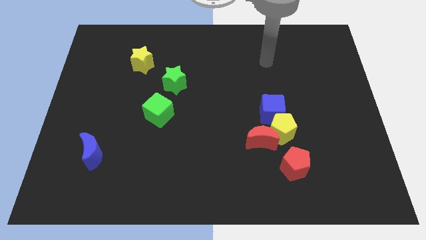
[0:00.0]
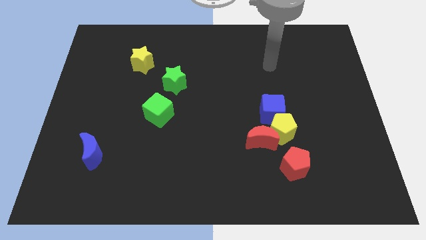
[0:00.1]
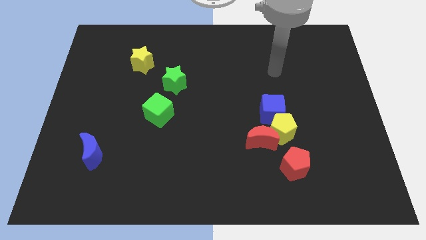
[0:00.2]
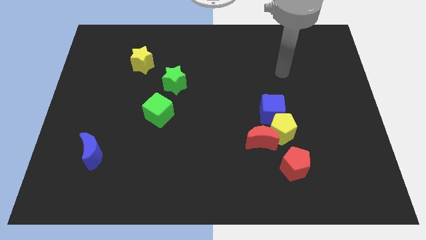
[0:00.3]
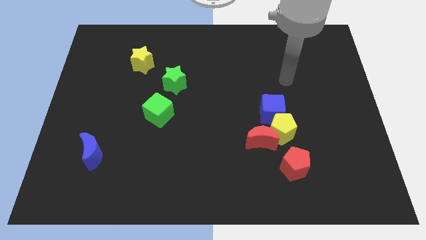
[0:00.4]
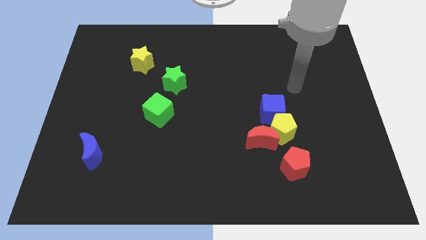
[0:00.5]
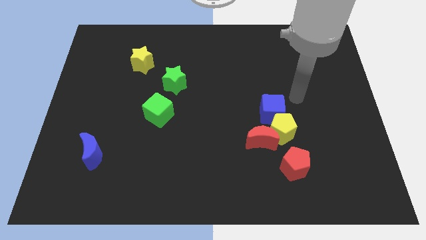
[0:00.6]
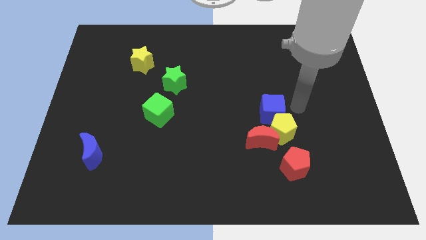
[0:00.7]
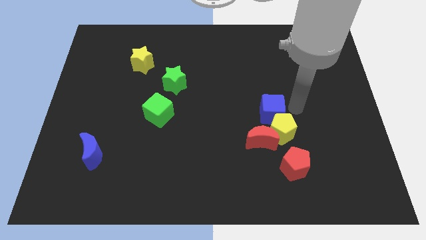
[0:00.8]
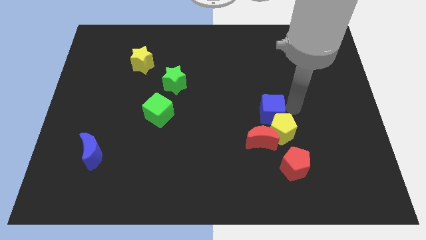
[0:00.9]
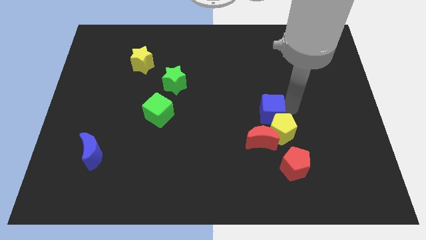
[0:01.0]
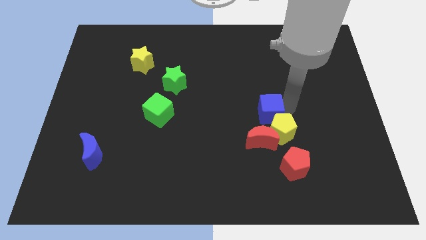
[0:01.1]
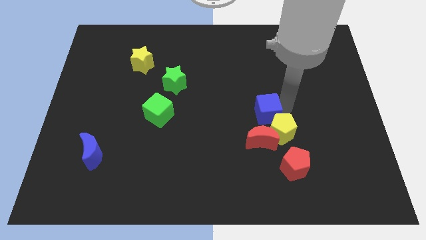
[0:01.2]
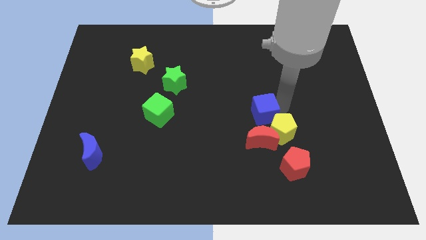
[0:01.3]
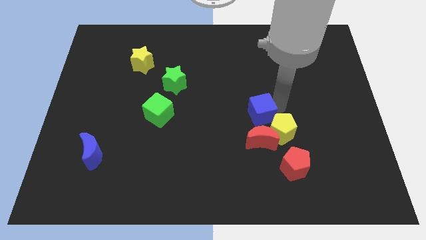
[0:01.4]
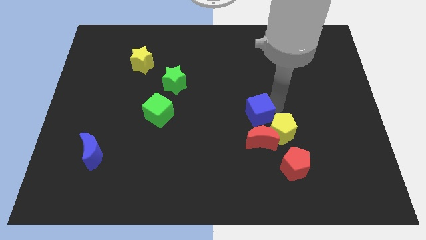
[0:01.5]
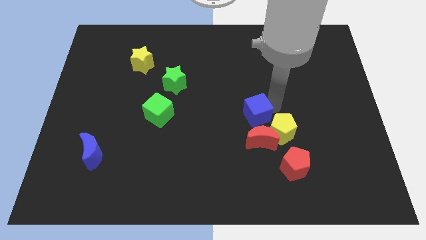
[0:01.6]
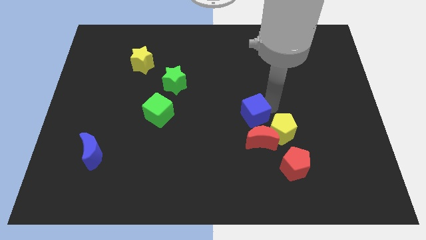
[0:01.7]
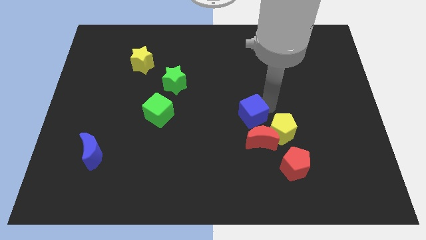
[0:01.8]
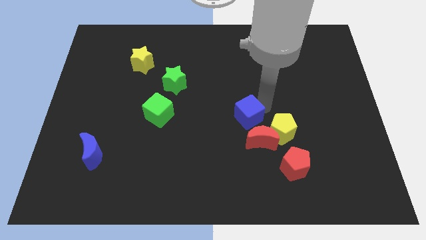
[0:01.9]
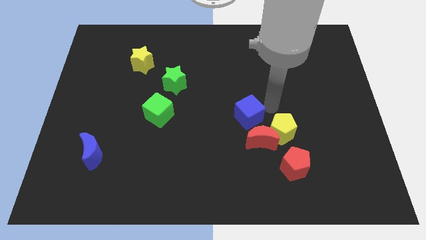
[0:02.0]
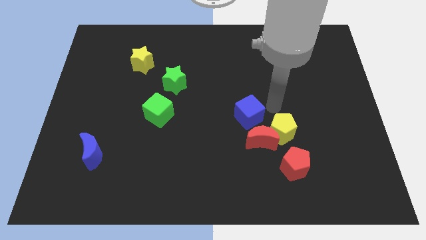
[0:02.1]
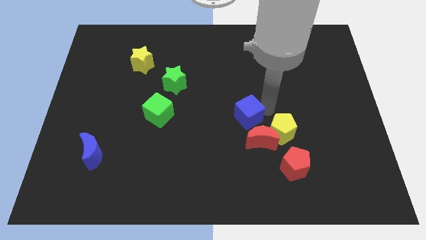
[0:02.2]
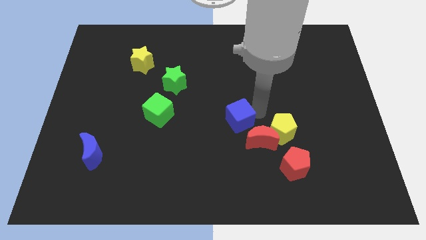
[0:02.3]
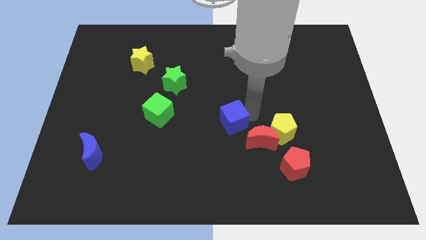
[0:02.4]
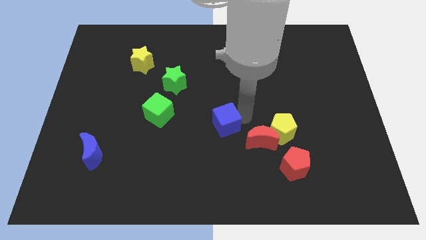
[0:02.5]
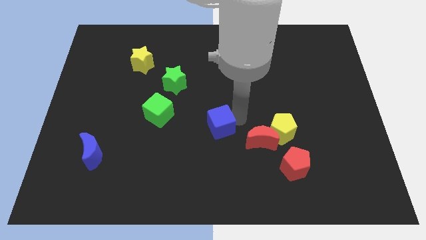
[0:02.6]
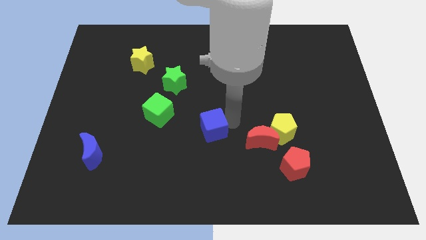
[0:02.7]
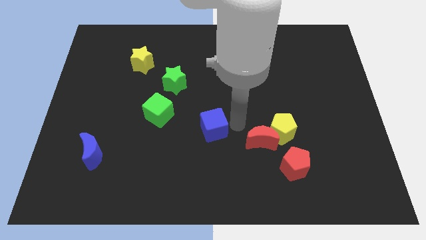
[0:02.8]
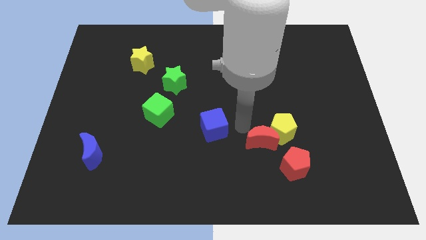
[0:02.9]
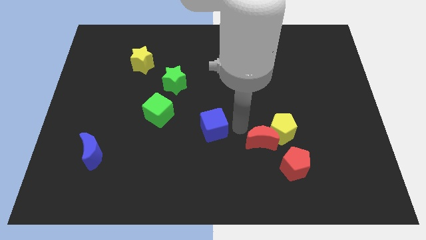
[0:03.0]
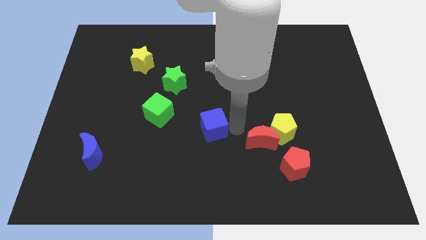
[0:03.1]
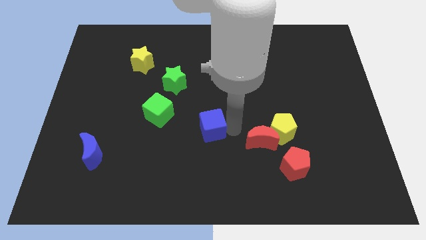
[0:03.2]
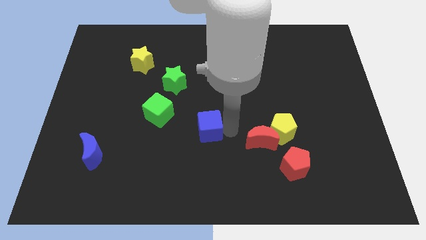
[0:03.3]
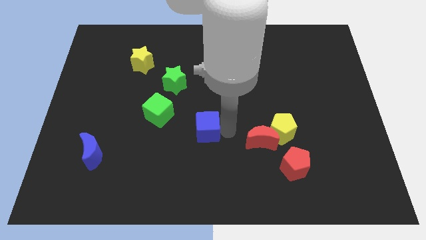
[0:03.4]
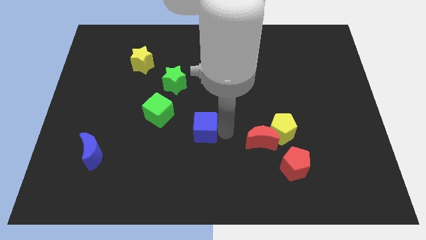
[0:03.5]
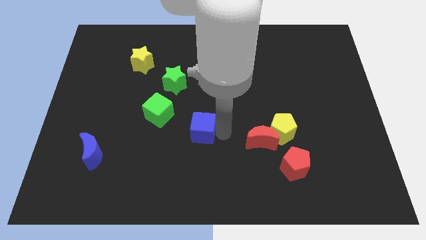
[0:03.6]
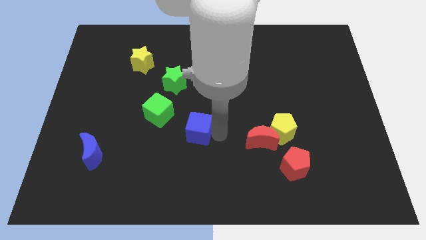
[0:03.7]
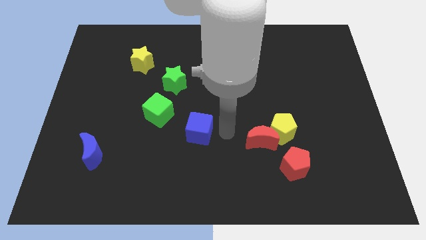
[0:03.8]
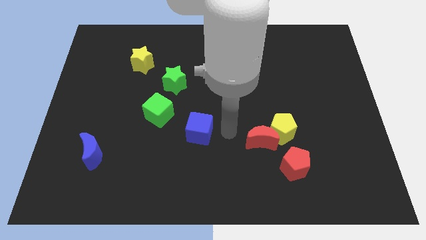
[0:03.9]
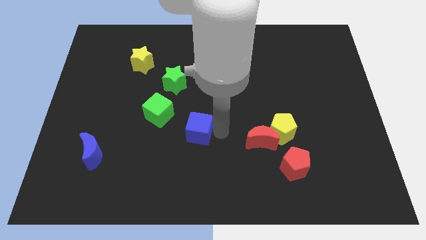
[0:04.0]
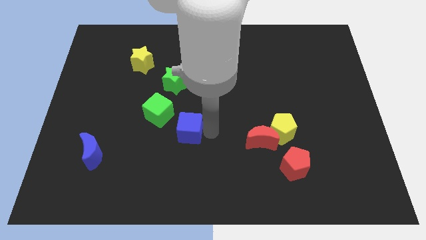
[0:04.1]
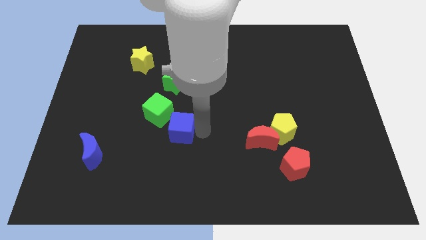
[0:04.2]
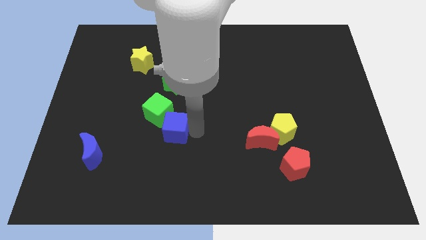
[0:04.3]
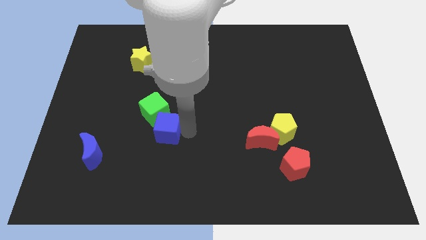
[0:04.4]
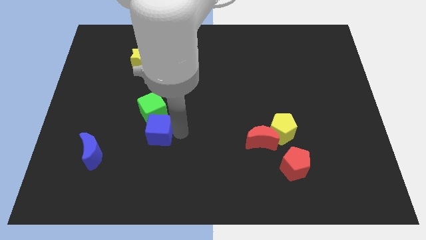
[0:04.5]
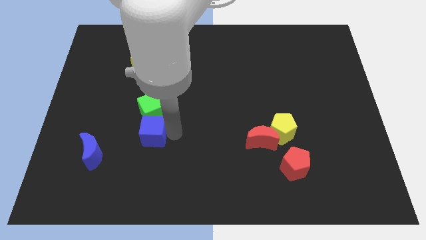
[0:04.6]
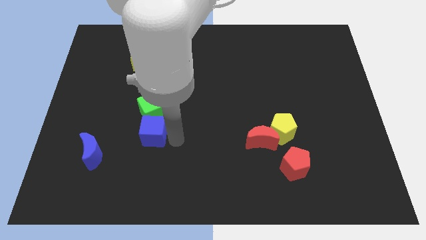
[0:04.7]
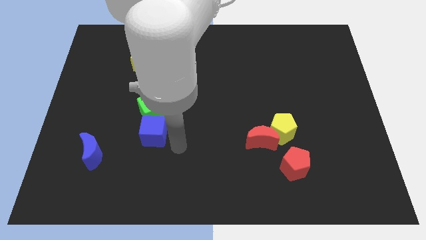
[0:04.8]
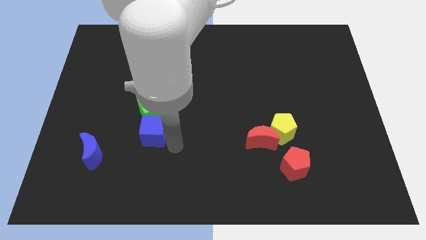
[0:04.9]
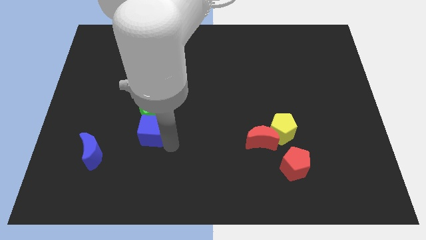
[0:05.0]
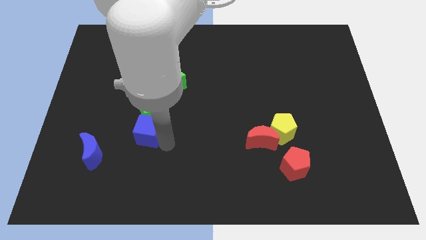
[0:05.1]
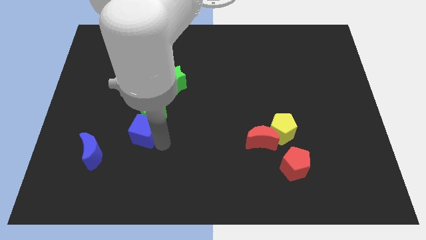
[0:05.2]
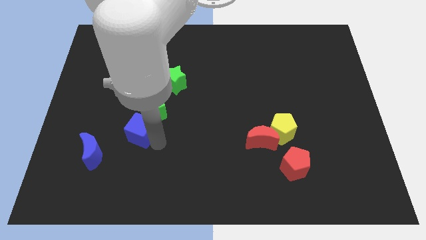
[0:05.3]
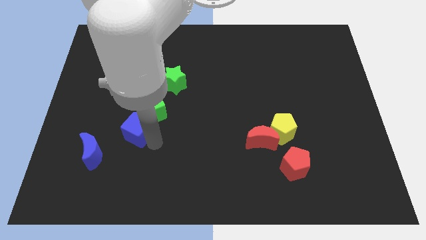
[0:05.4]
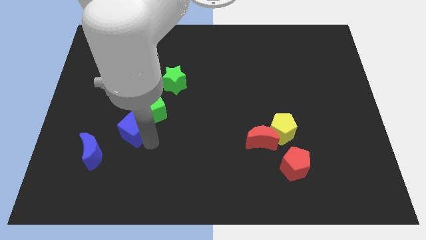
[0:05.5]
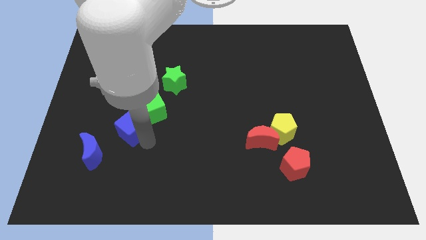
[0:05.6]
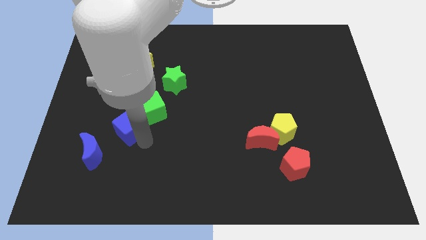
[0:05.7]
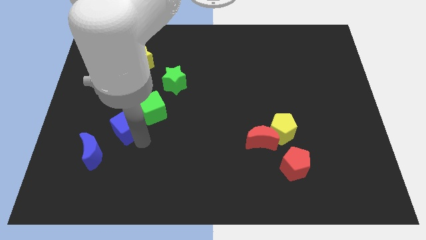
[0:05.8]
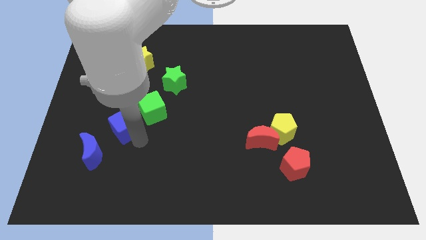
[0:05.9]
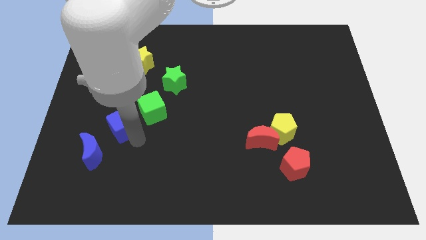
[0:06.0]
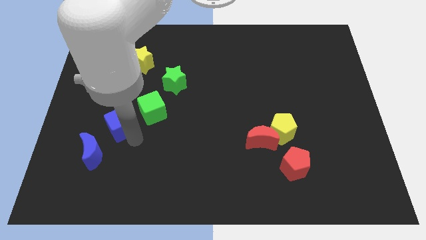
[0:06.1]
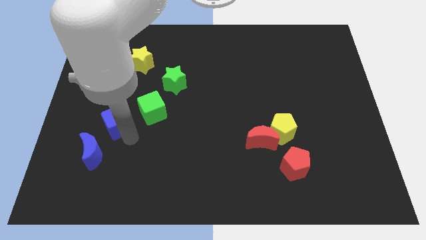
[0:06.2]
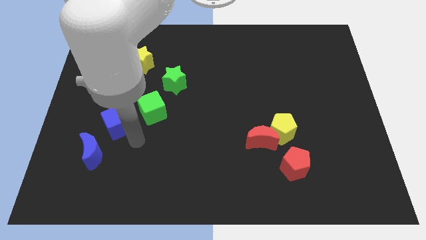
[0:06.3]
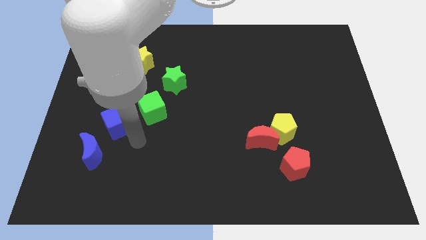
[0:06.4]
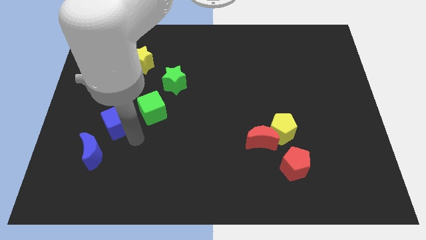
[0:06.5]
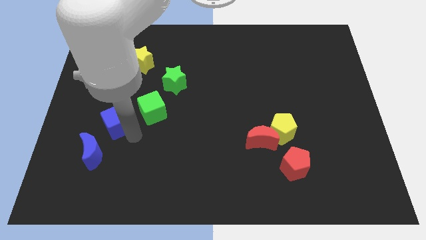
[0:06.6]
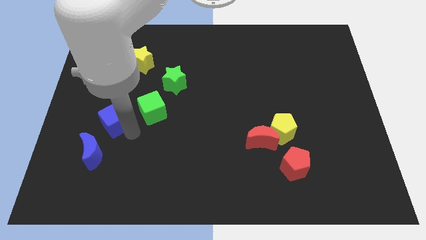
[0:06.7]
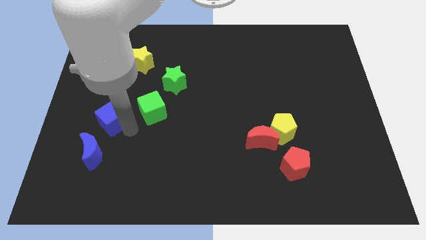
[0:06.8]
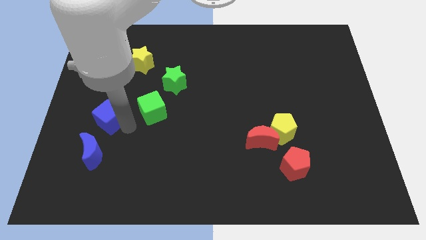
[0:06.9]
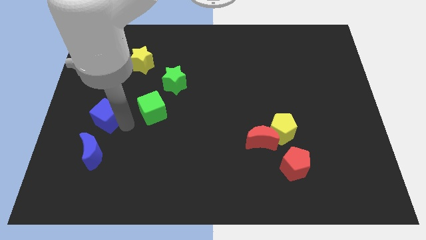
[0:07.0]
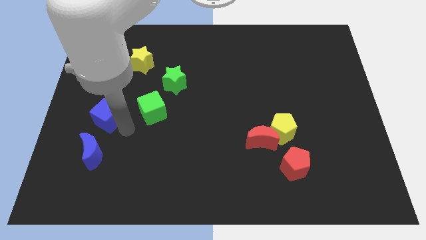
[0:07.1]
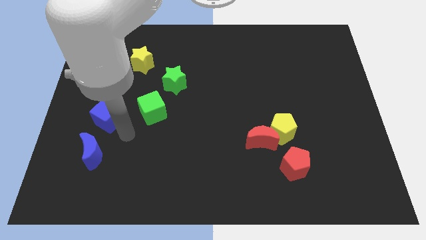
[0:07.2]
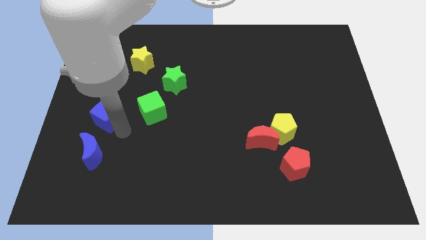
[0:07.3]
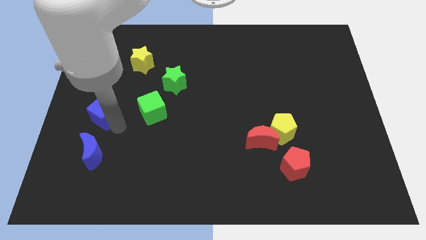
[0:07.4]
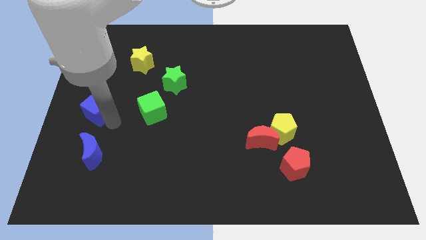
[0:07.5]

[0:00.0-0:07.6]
move the blue cube to the center left
